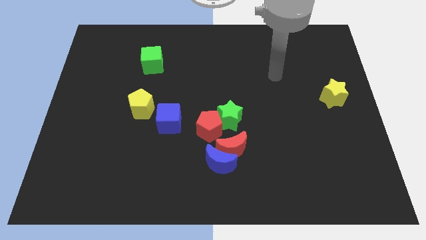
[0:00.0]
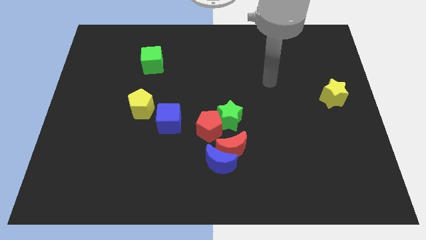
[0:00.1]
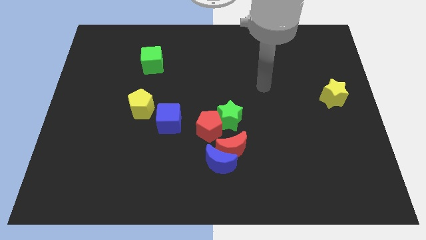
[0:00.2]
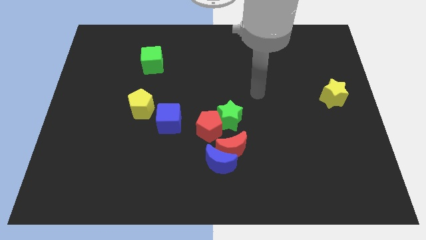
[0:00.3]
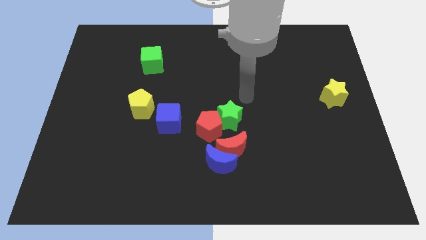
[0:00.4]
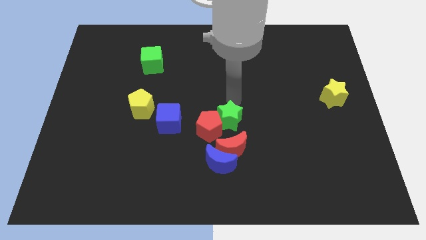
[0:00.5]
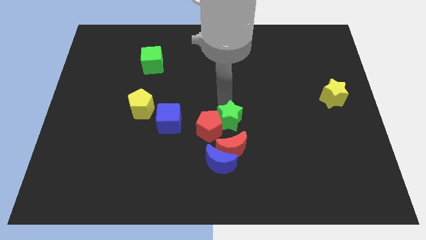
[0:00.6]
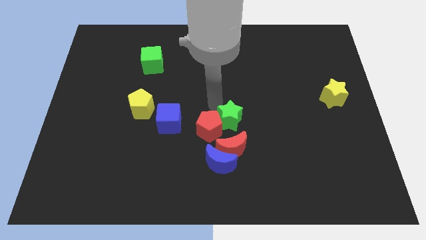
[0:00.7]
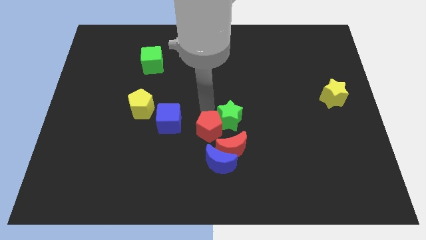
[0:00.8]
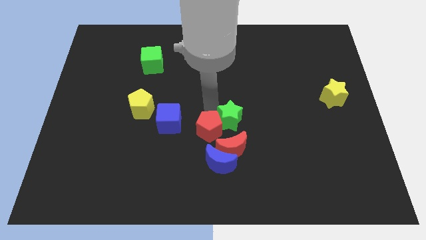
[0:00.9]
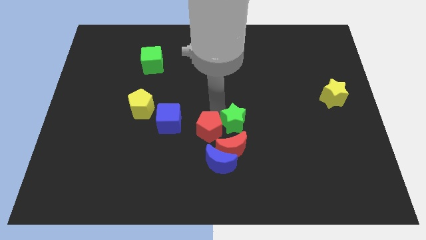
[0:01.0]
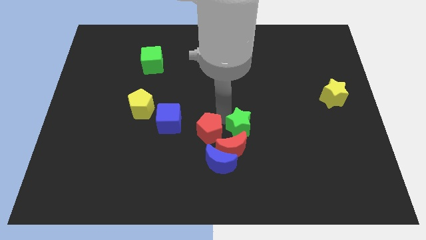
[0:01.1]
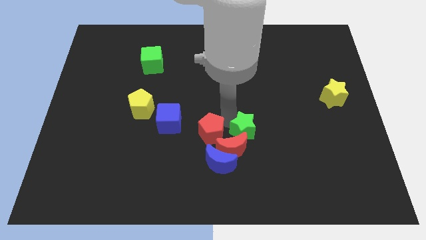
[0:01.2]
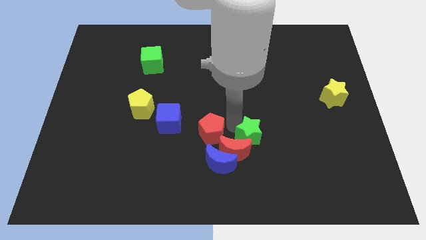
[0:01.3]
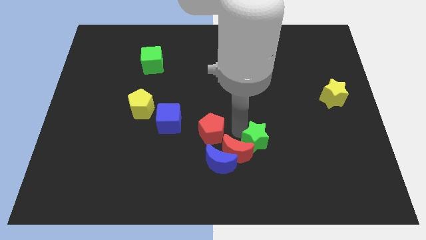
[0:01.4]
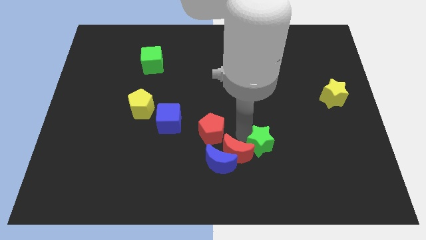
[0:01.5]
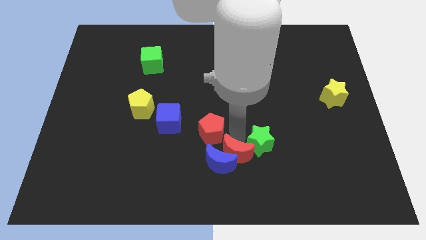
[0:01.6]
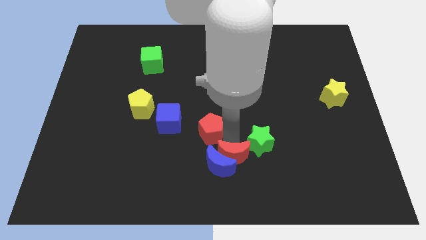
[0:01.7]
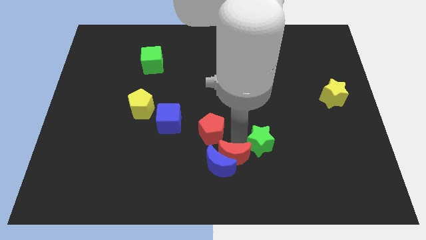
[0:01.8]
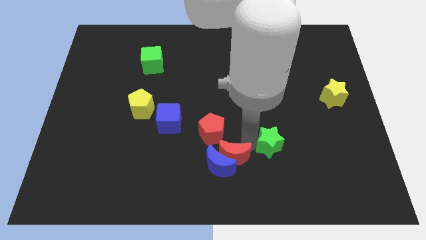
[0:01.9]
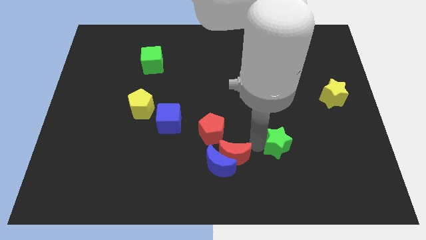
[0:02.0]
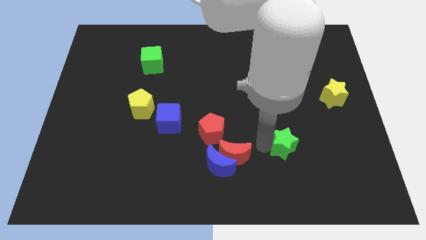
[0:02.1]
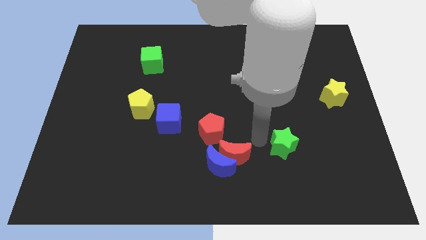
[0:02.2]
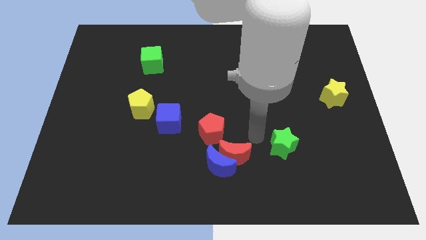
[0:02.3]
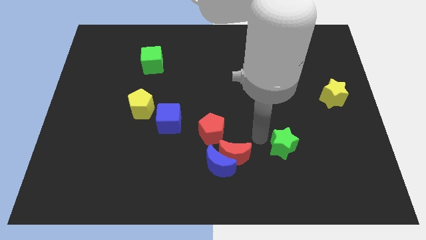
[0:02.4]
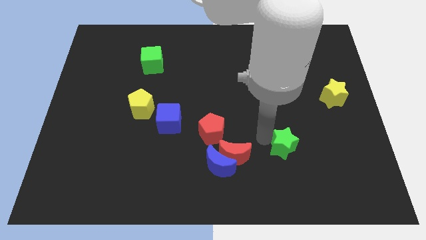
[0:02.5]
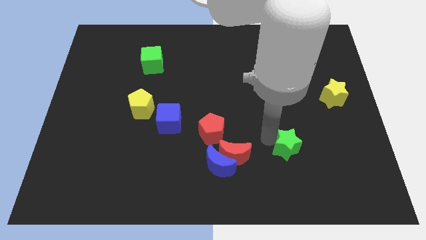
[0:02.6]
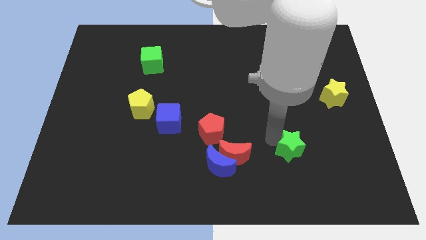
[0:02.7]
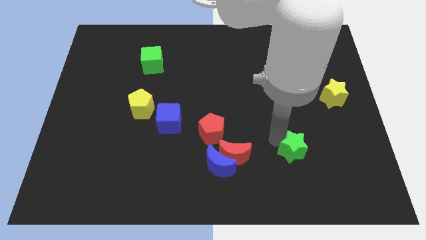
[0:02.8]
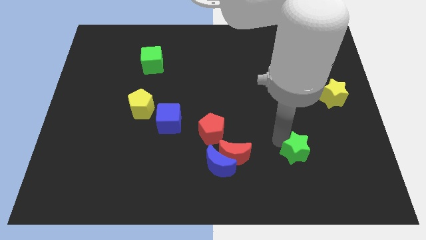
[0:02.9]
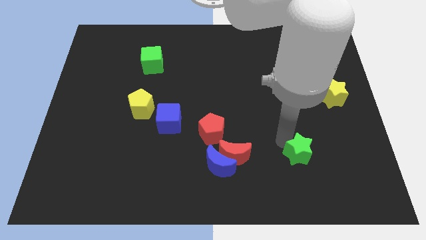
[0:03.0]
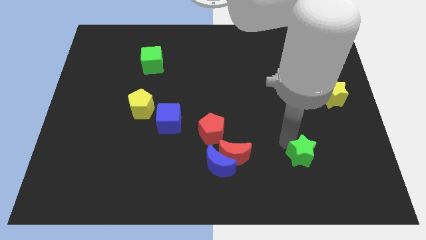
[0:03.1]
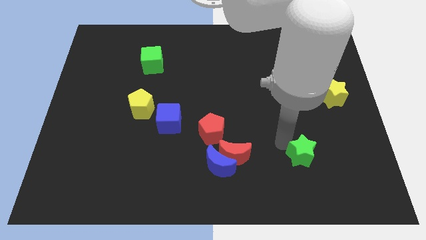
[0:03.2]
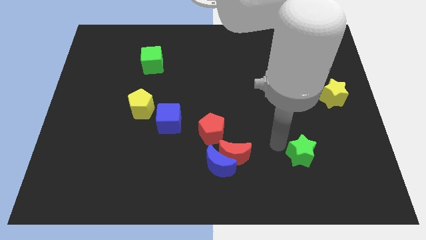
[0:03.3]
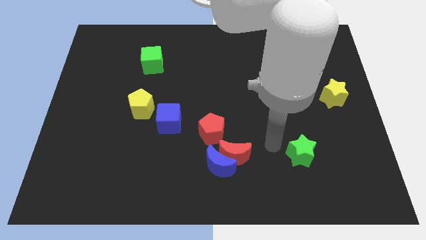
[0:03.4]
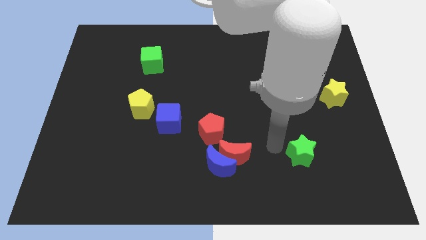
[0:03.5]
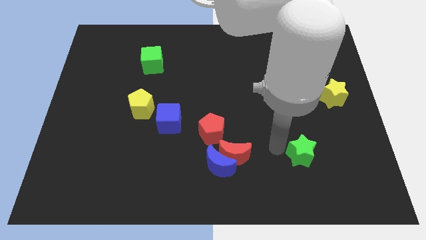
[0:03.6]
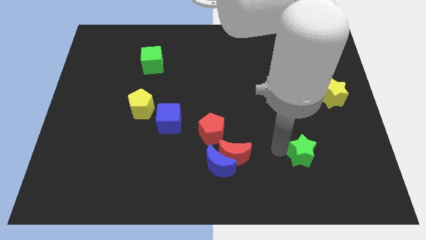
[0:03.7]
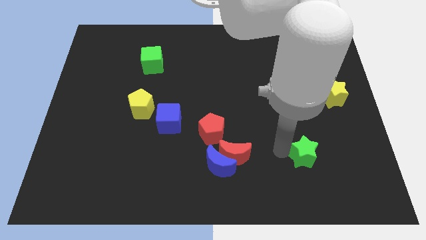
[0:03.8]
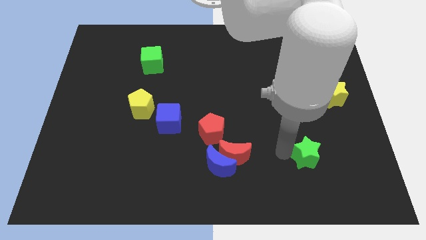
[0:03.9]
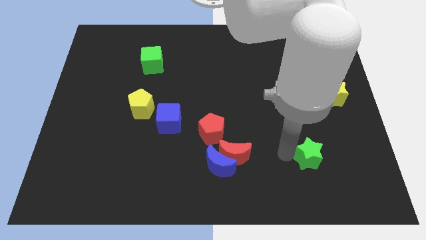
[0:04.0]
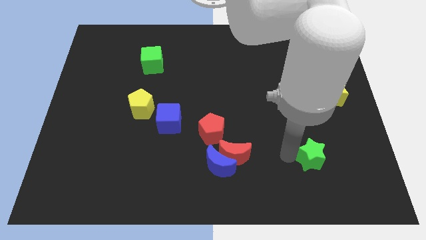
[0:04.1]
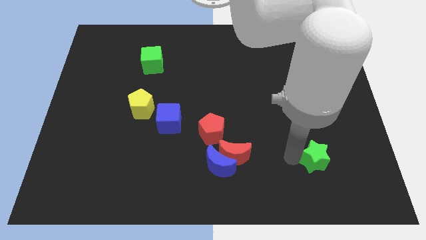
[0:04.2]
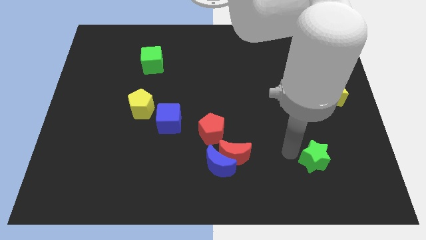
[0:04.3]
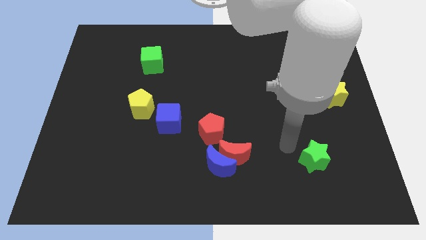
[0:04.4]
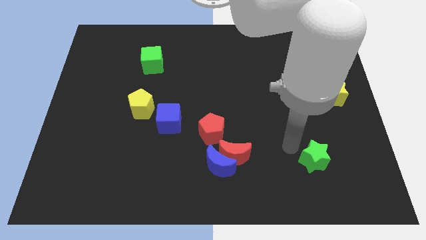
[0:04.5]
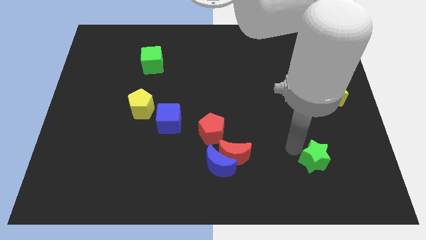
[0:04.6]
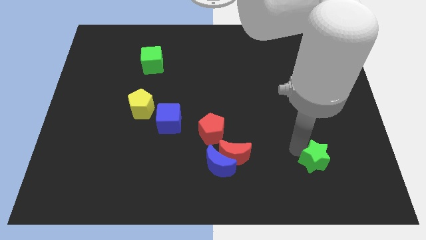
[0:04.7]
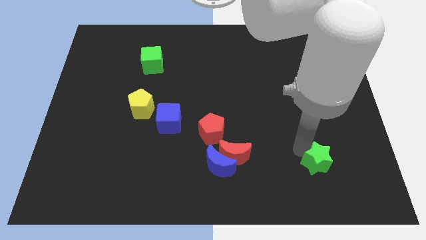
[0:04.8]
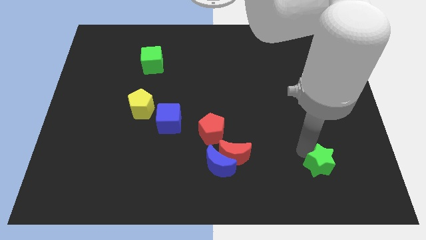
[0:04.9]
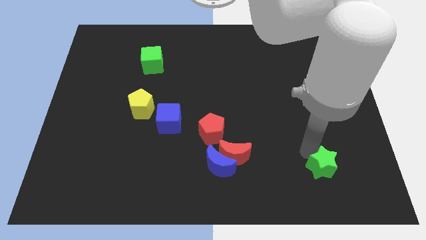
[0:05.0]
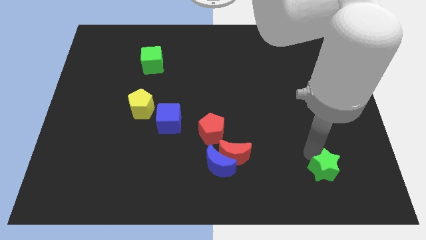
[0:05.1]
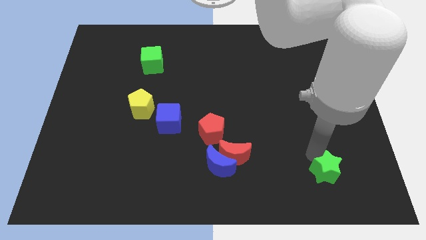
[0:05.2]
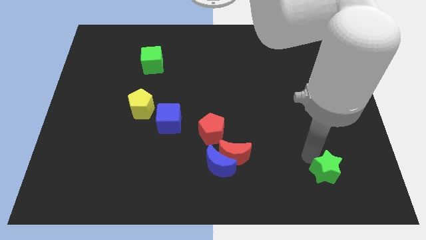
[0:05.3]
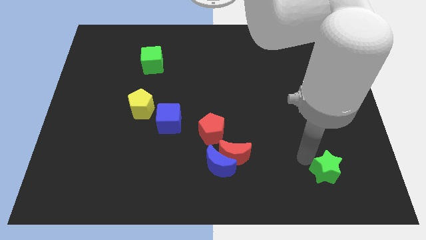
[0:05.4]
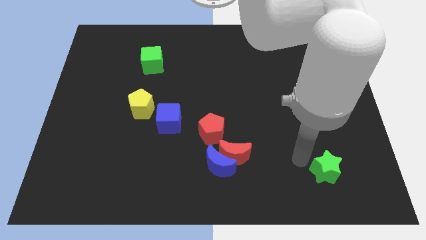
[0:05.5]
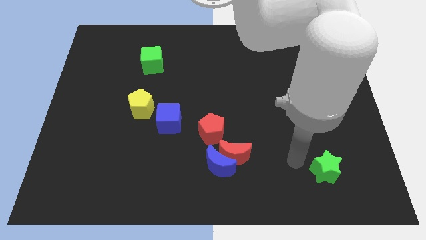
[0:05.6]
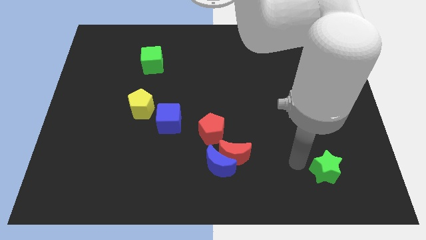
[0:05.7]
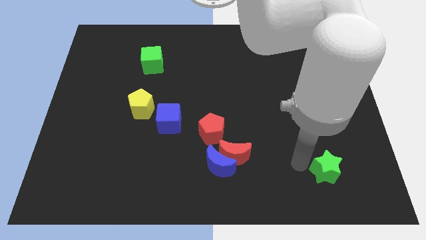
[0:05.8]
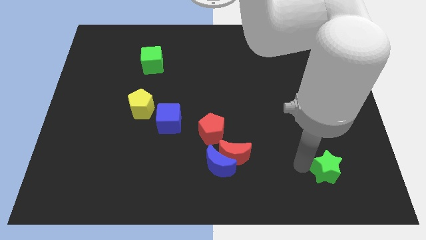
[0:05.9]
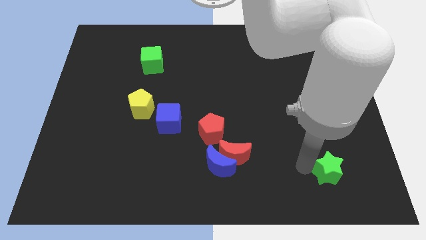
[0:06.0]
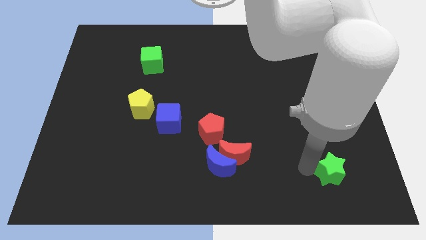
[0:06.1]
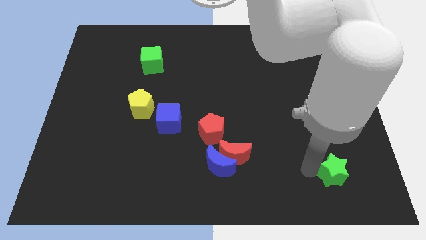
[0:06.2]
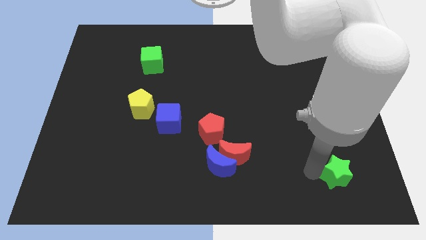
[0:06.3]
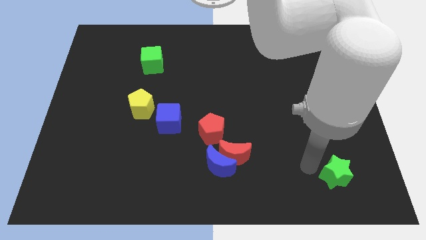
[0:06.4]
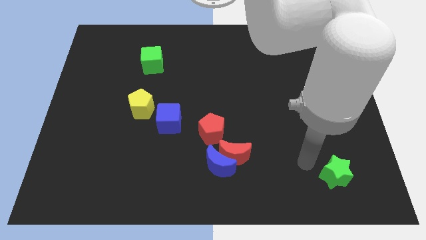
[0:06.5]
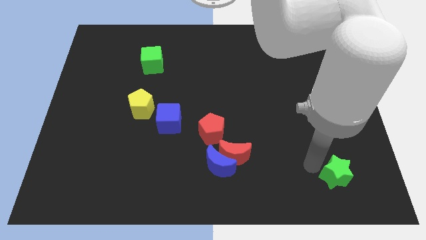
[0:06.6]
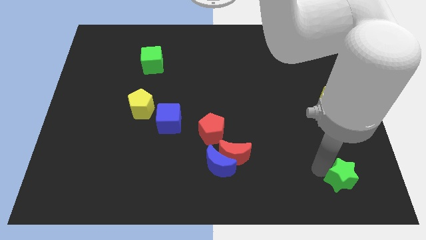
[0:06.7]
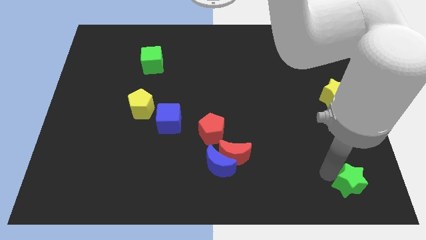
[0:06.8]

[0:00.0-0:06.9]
push the green star to the lower right corner

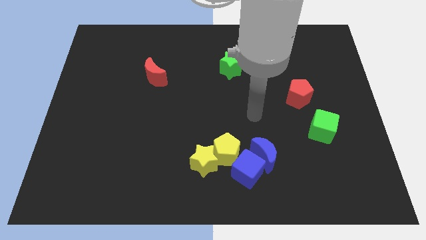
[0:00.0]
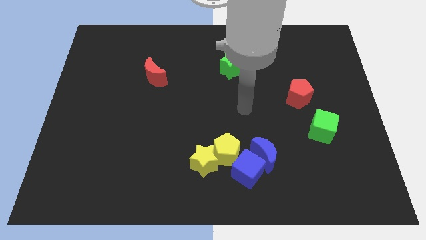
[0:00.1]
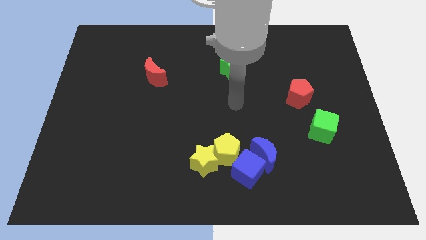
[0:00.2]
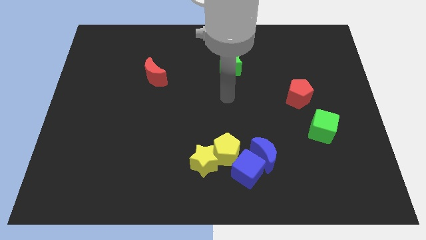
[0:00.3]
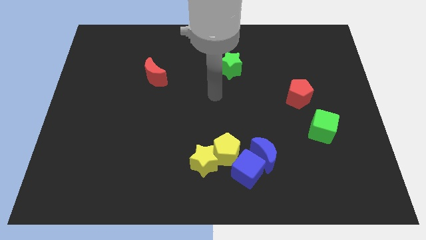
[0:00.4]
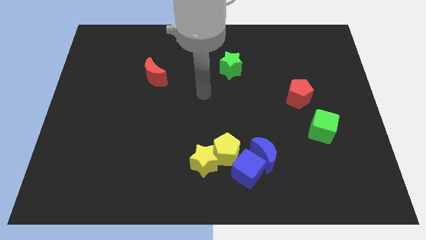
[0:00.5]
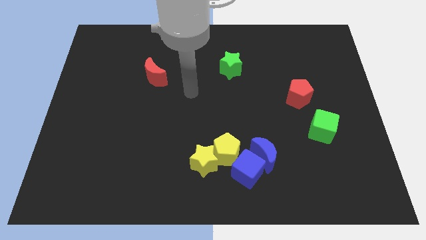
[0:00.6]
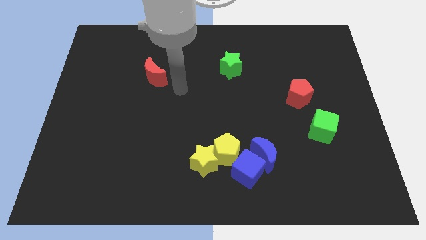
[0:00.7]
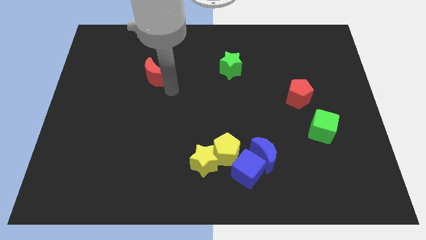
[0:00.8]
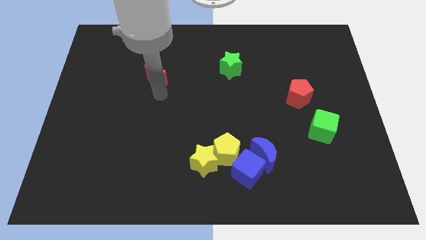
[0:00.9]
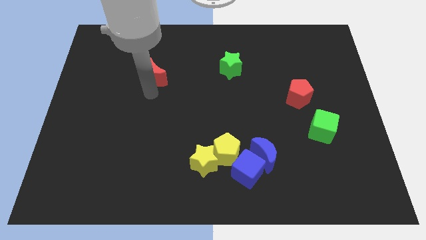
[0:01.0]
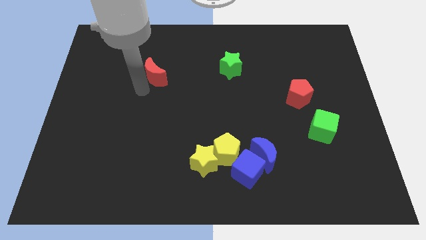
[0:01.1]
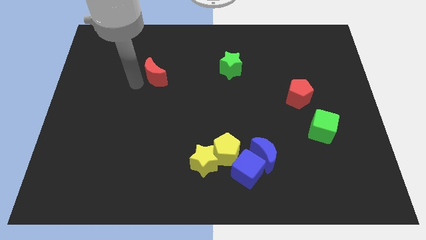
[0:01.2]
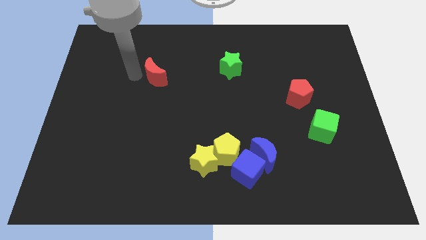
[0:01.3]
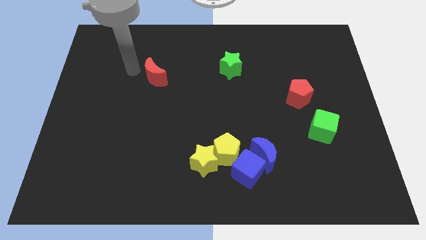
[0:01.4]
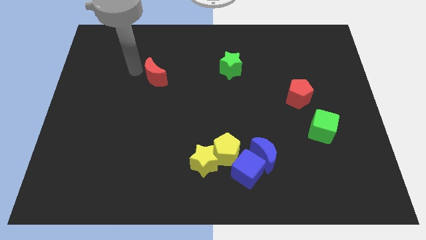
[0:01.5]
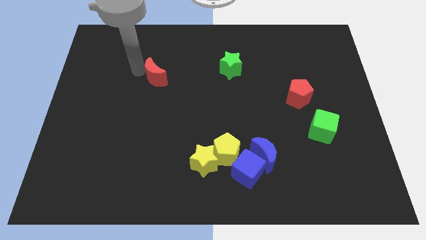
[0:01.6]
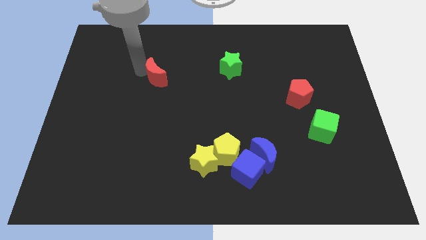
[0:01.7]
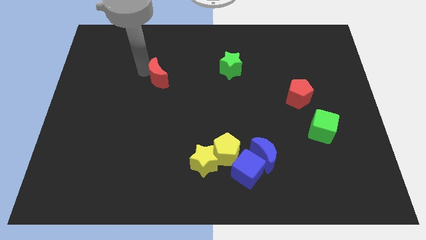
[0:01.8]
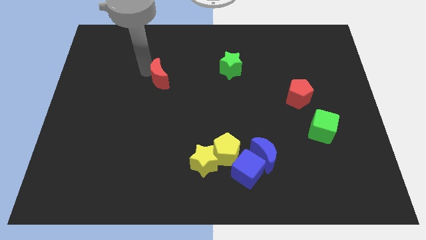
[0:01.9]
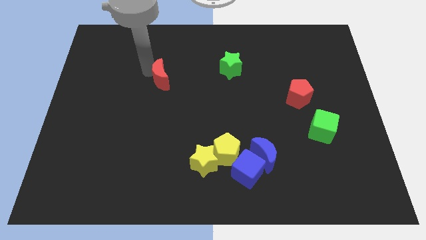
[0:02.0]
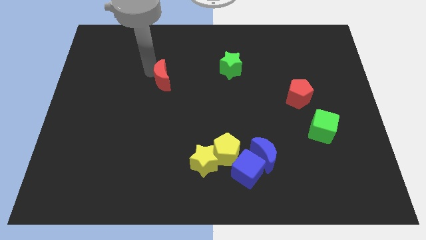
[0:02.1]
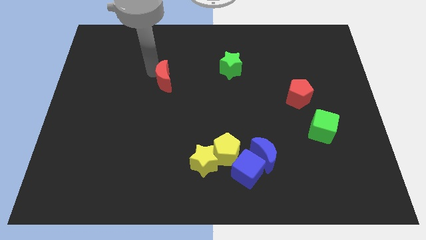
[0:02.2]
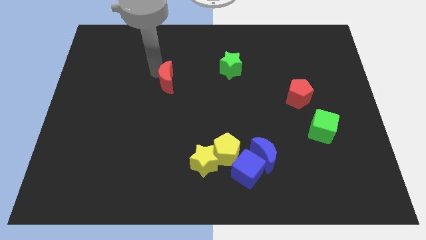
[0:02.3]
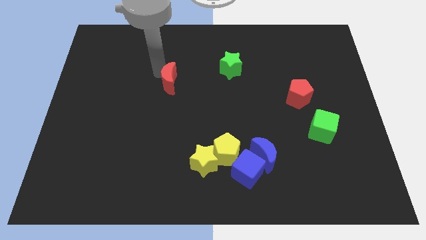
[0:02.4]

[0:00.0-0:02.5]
move the red moon to the center
